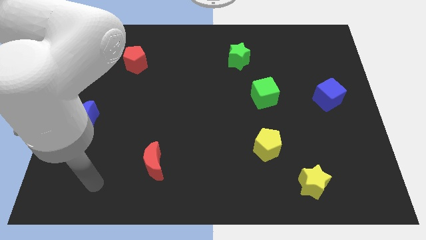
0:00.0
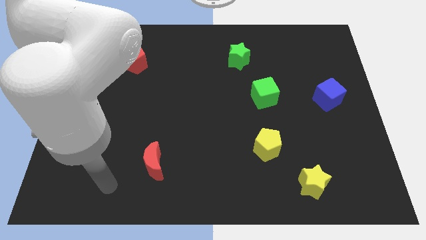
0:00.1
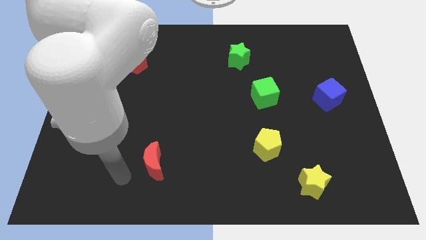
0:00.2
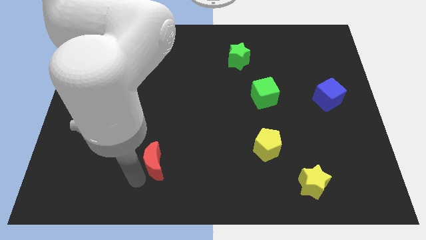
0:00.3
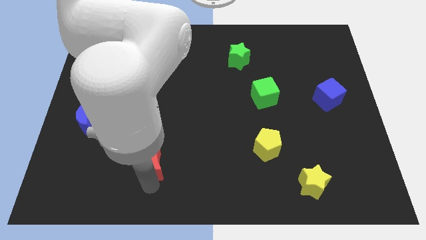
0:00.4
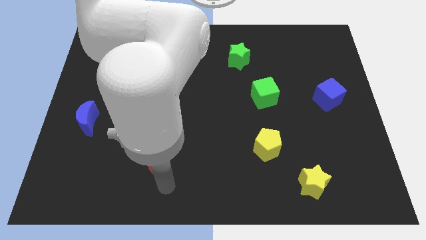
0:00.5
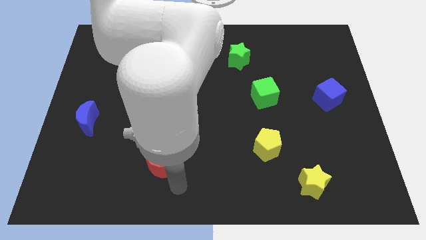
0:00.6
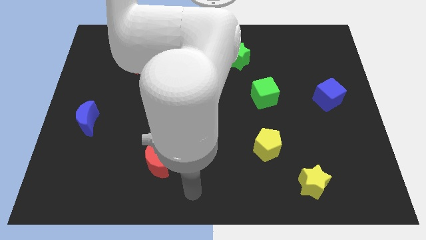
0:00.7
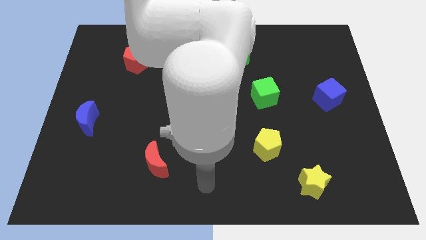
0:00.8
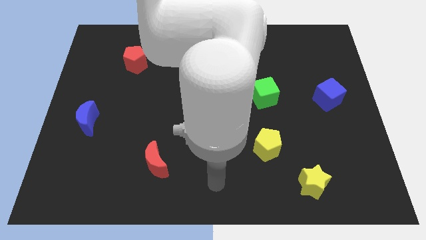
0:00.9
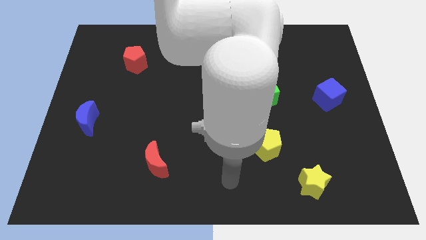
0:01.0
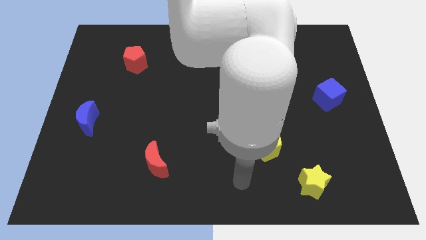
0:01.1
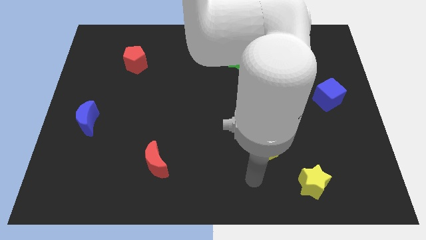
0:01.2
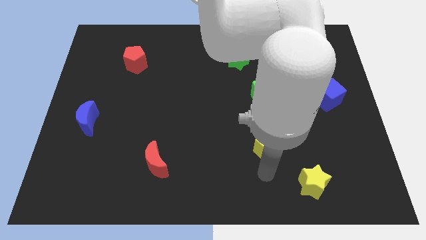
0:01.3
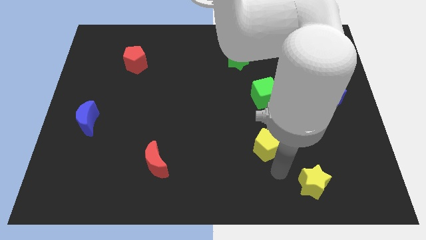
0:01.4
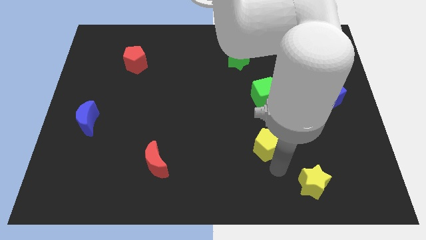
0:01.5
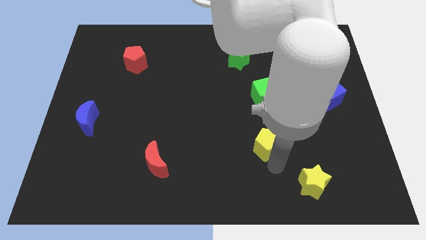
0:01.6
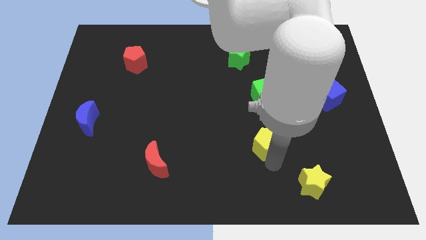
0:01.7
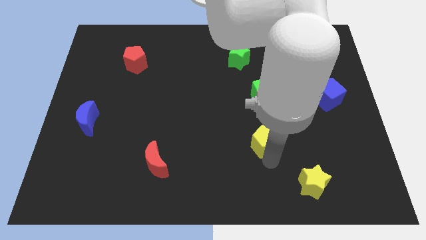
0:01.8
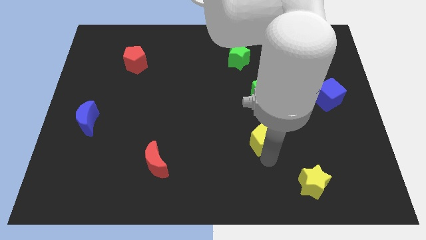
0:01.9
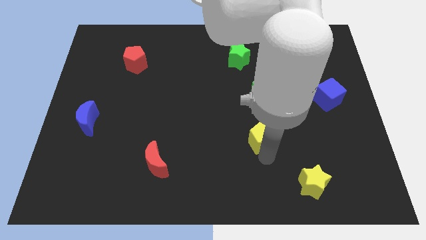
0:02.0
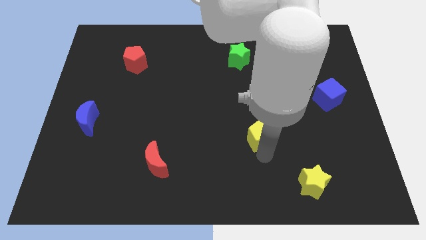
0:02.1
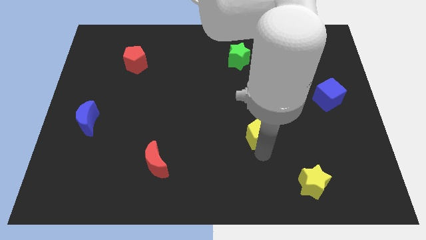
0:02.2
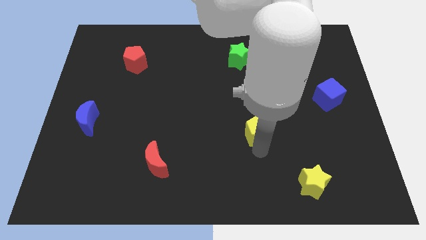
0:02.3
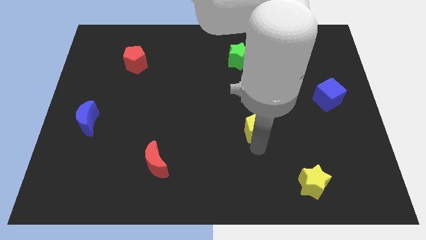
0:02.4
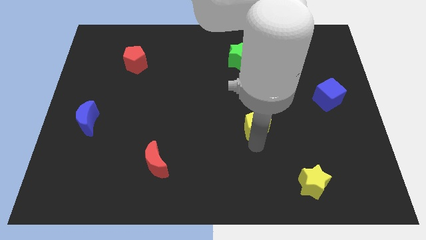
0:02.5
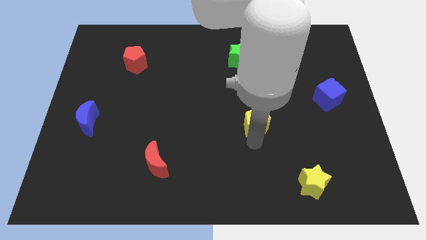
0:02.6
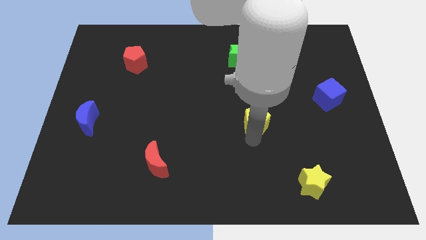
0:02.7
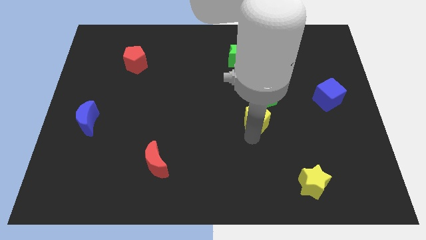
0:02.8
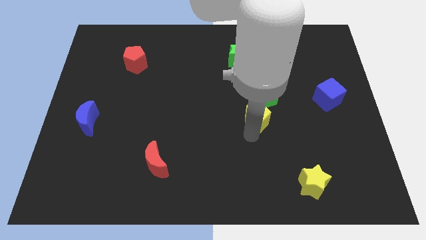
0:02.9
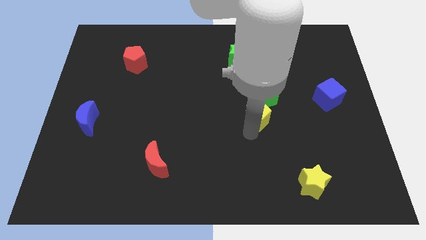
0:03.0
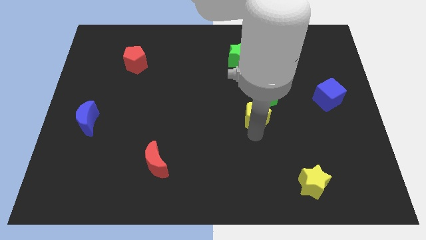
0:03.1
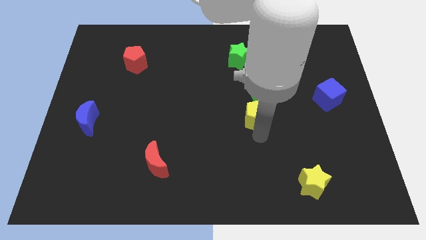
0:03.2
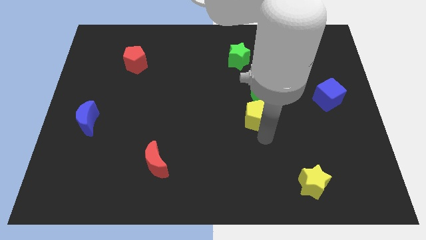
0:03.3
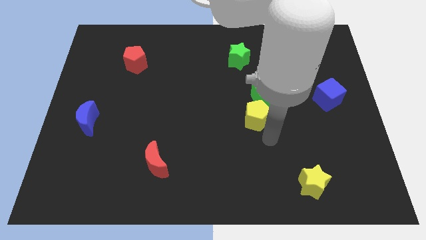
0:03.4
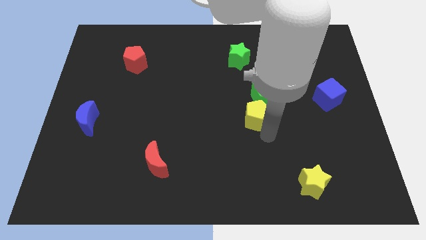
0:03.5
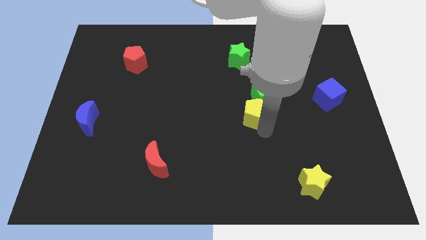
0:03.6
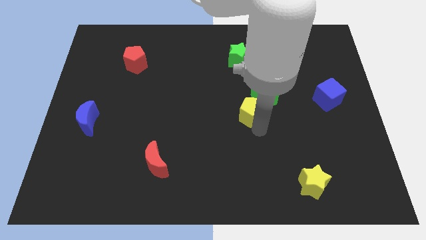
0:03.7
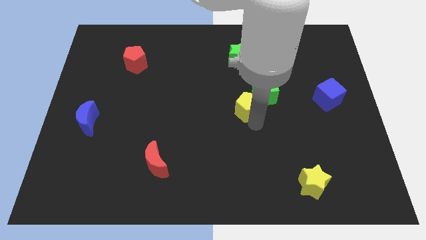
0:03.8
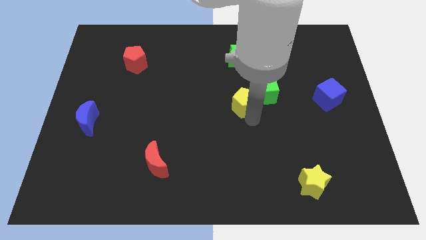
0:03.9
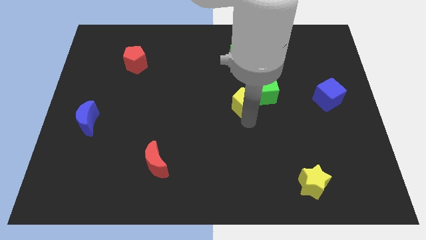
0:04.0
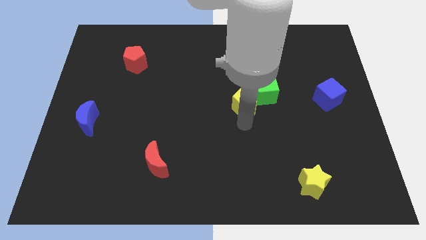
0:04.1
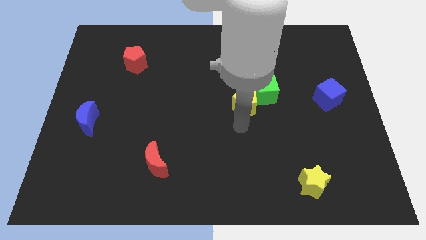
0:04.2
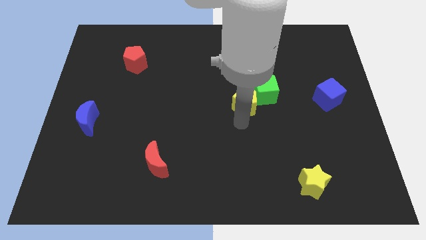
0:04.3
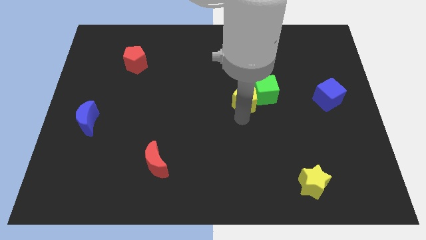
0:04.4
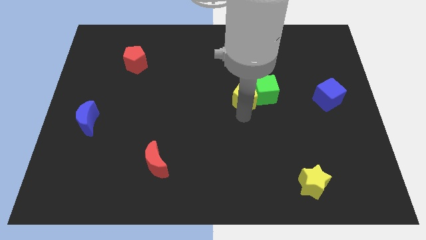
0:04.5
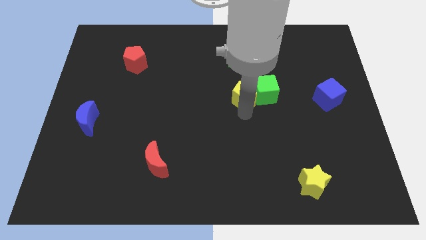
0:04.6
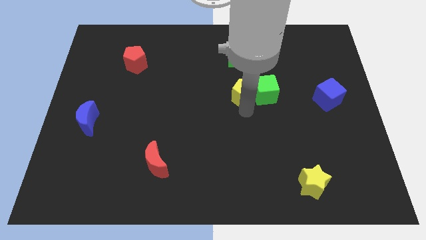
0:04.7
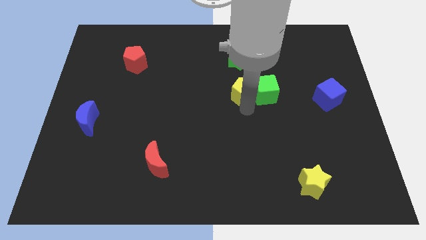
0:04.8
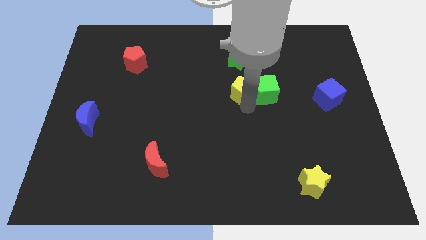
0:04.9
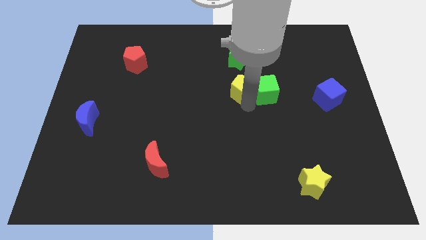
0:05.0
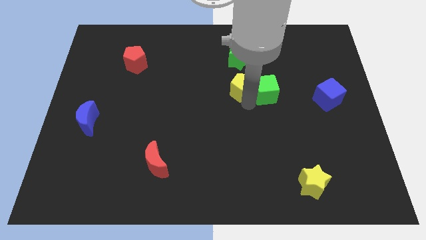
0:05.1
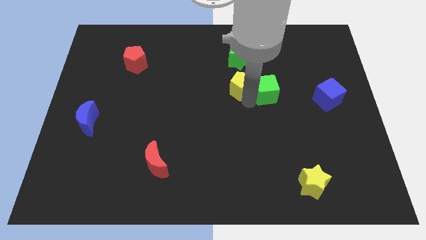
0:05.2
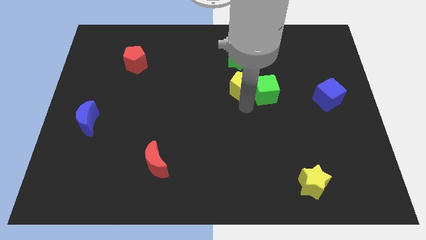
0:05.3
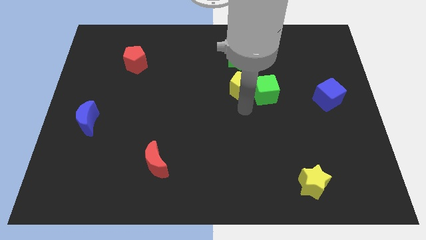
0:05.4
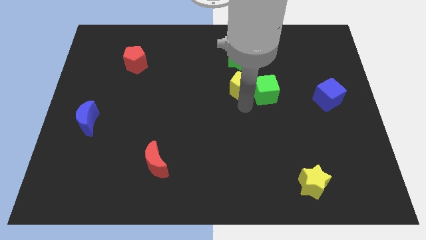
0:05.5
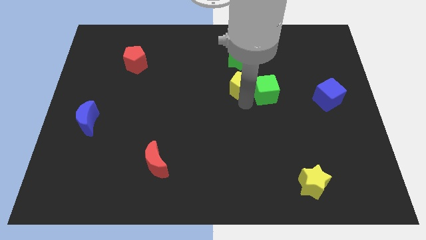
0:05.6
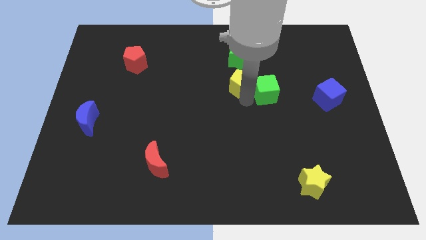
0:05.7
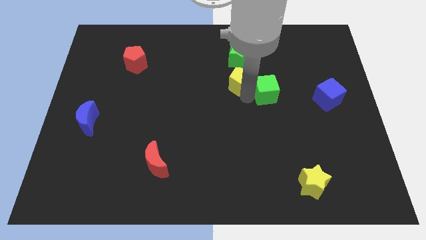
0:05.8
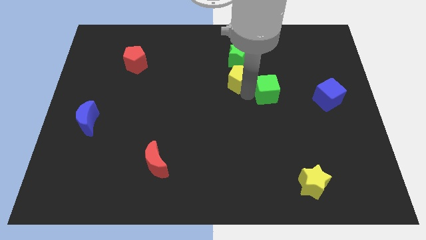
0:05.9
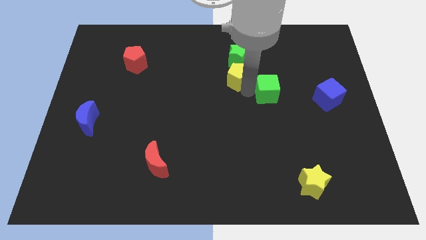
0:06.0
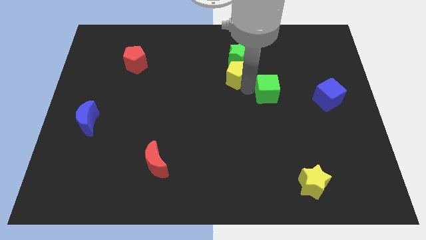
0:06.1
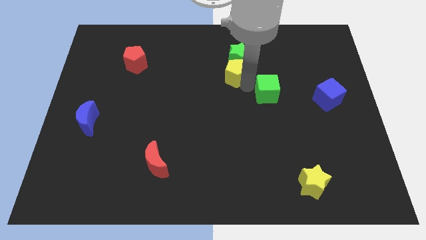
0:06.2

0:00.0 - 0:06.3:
slide the yellow pentagon towards the green star

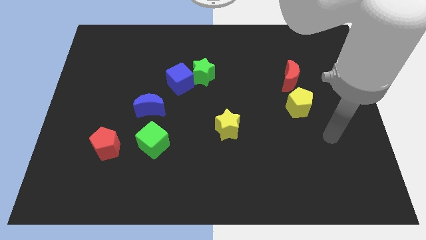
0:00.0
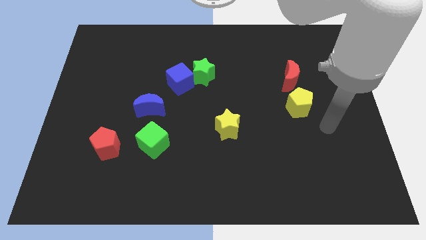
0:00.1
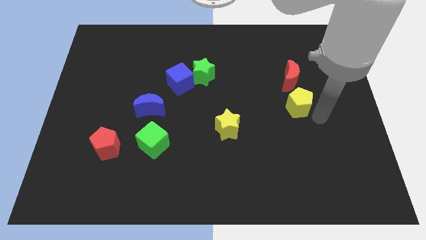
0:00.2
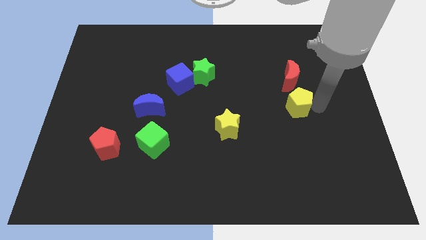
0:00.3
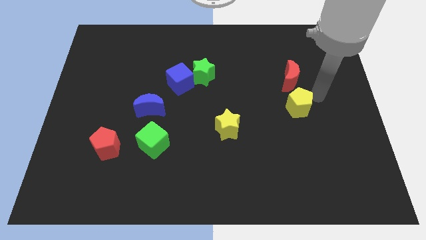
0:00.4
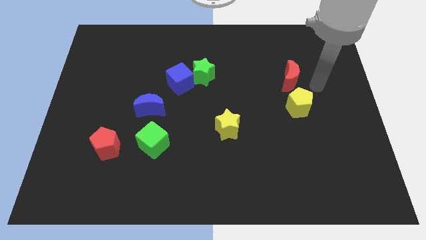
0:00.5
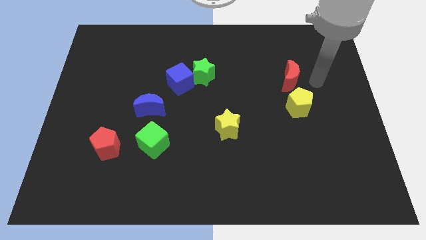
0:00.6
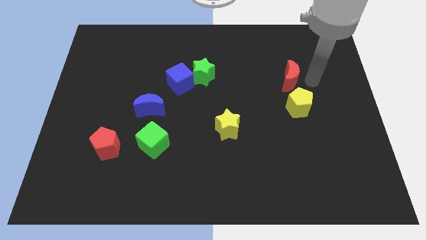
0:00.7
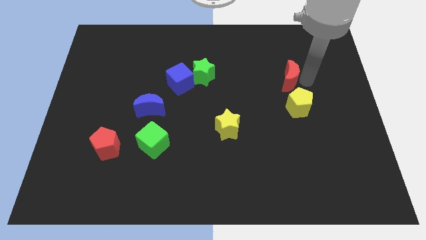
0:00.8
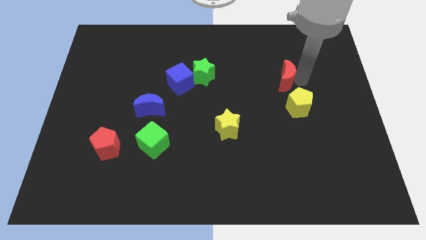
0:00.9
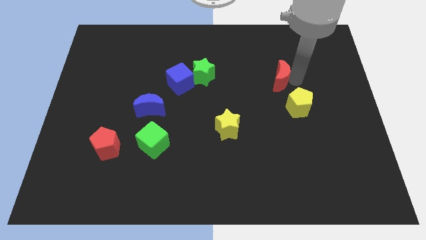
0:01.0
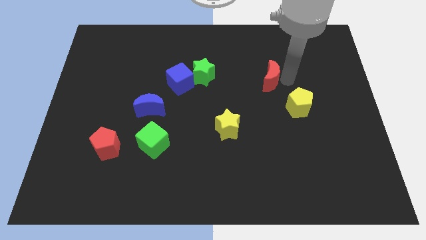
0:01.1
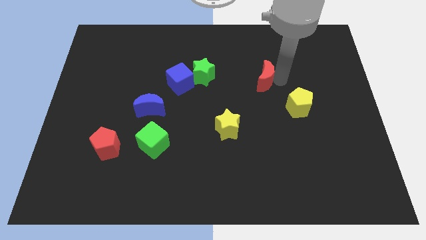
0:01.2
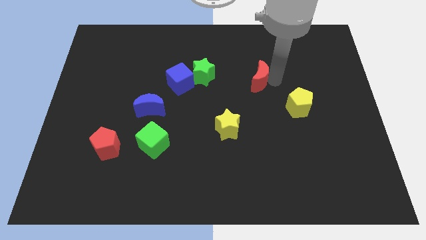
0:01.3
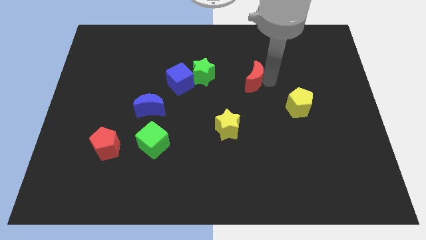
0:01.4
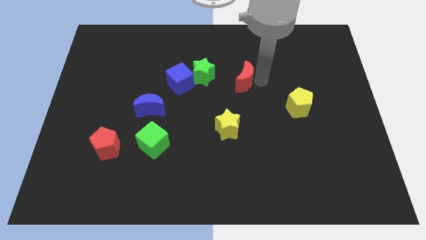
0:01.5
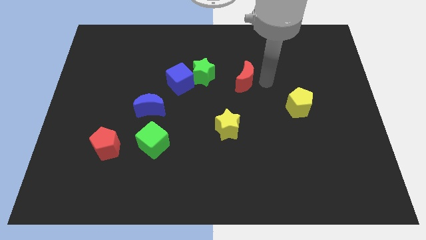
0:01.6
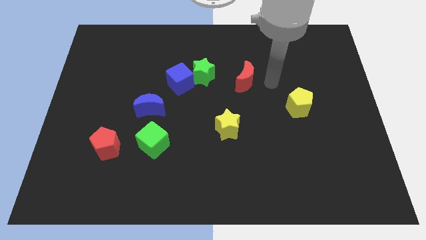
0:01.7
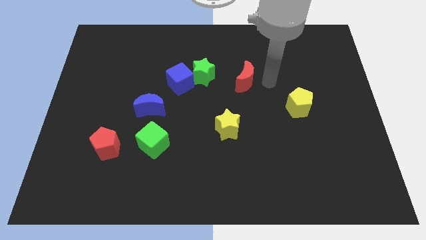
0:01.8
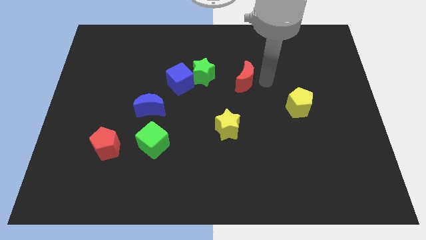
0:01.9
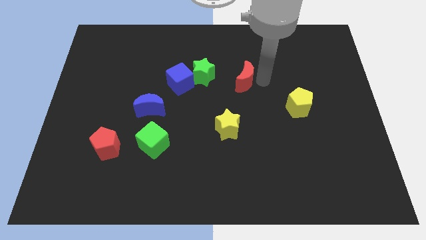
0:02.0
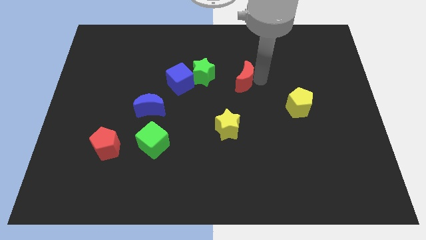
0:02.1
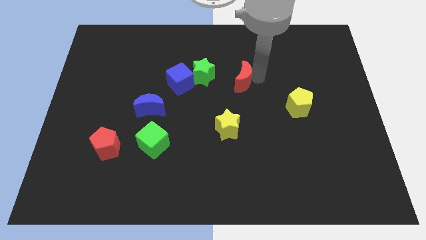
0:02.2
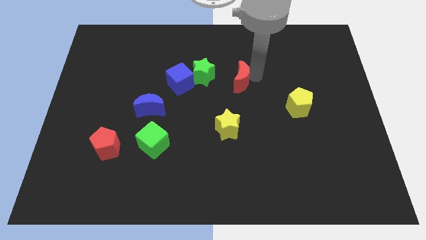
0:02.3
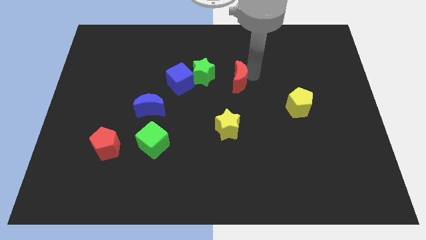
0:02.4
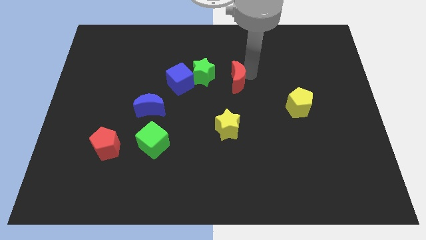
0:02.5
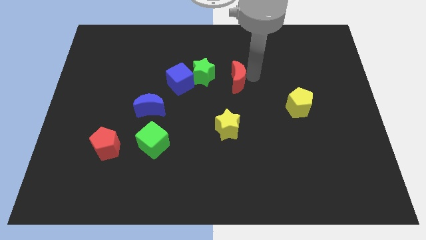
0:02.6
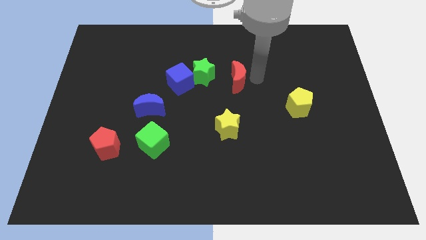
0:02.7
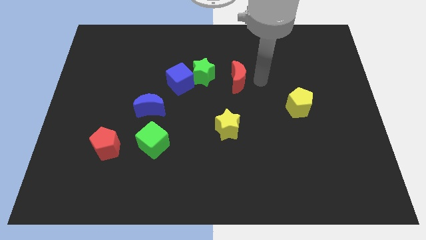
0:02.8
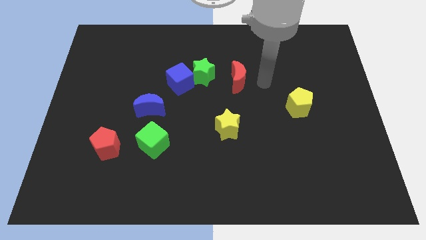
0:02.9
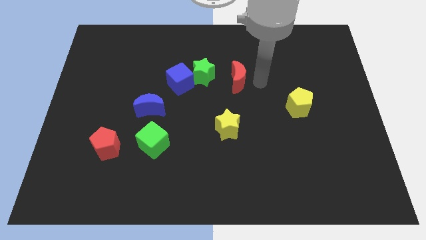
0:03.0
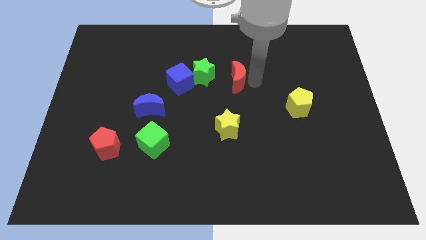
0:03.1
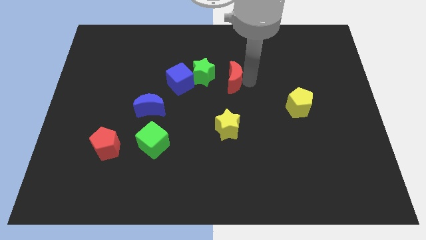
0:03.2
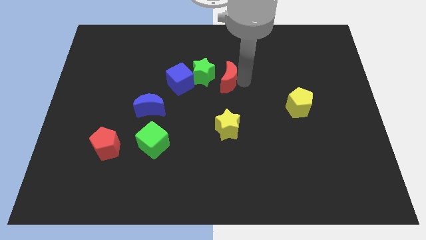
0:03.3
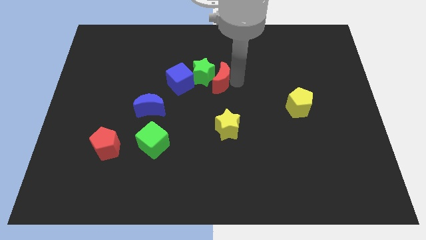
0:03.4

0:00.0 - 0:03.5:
slide the red moon next to the green star
